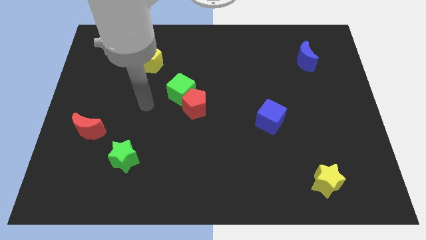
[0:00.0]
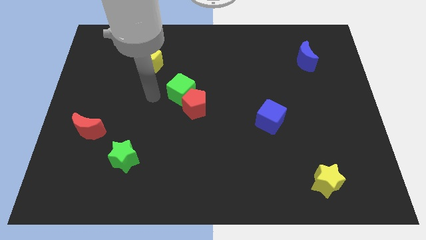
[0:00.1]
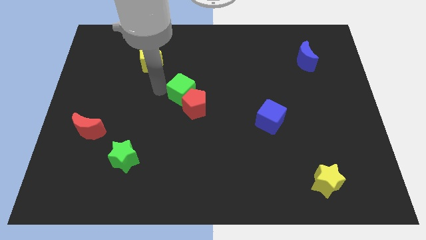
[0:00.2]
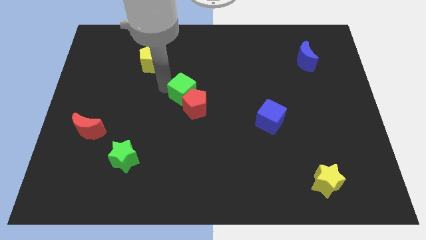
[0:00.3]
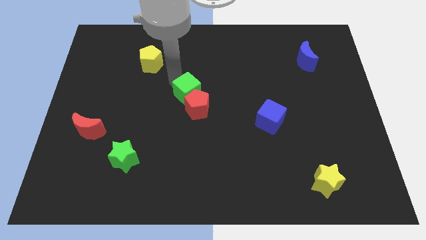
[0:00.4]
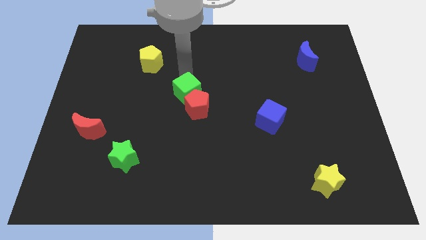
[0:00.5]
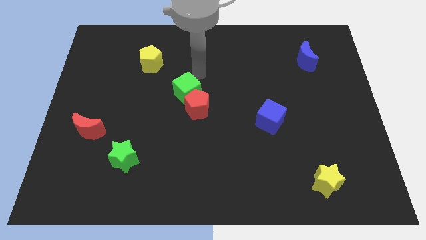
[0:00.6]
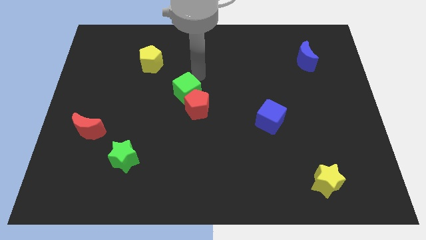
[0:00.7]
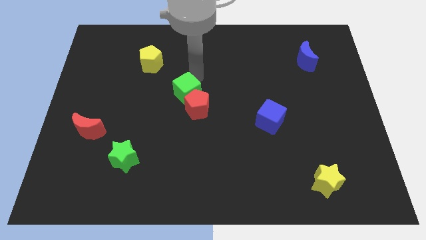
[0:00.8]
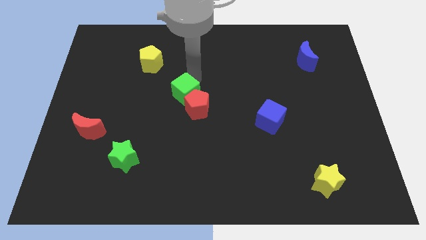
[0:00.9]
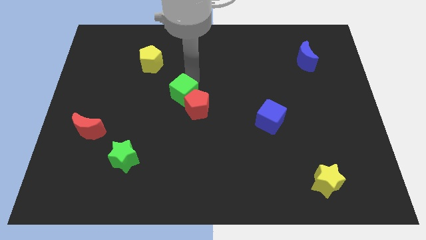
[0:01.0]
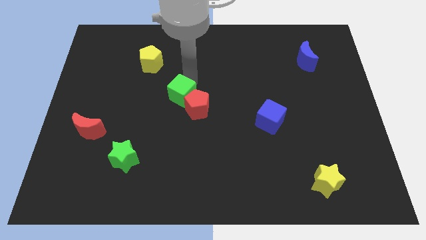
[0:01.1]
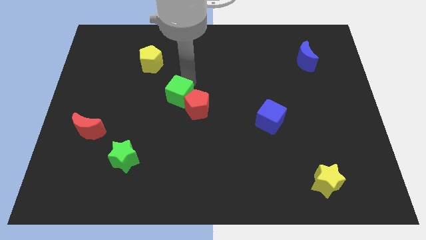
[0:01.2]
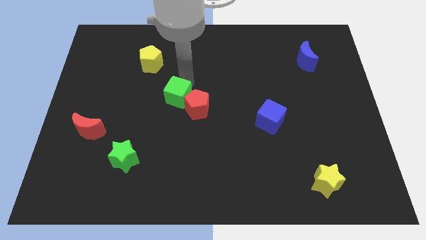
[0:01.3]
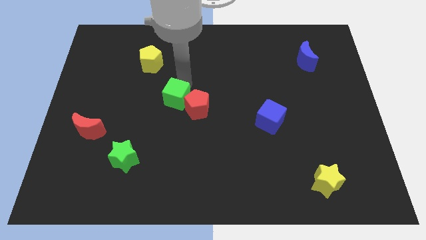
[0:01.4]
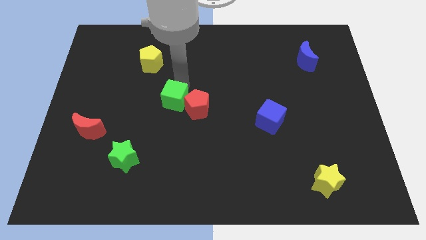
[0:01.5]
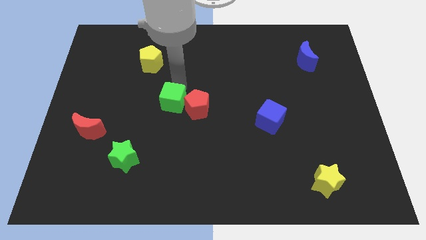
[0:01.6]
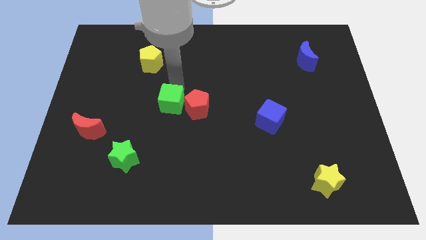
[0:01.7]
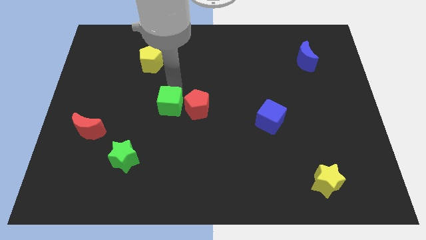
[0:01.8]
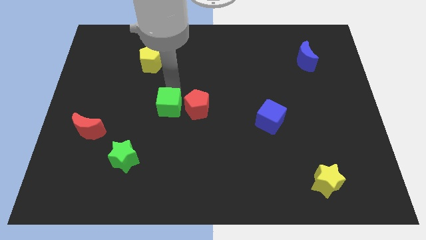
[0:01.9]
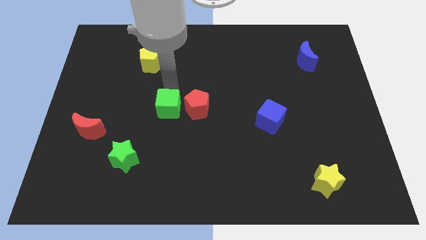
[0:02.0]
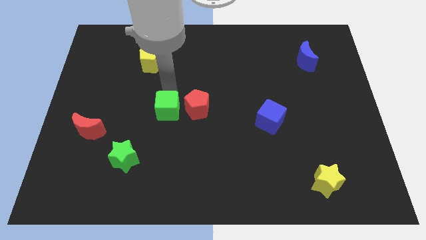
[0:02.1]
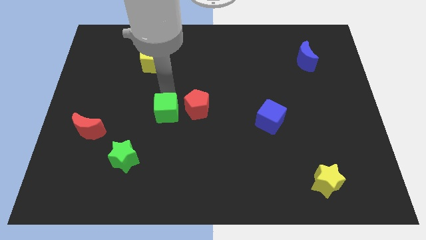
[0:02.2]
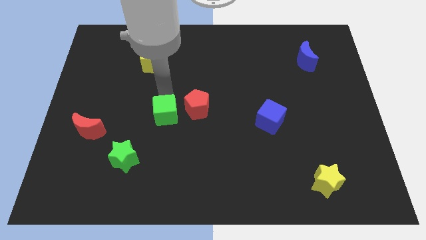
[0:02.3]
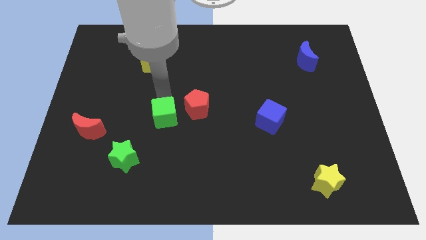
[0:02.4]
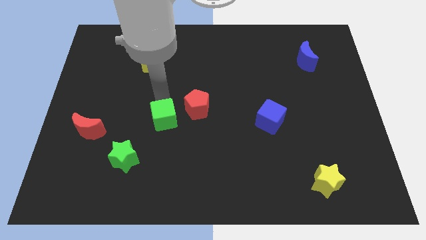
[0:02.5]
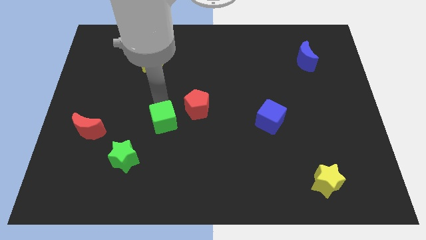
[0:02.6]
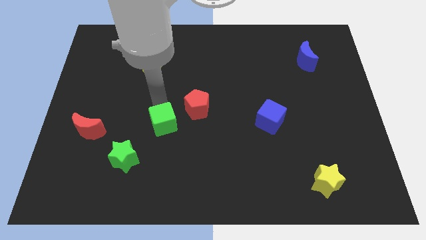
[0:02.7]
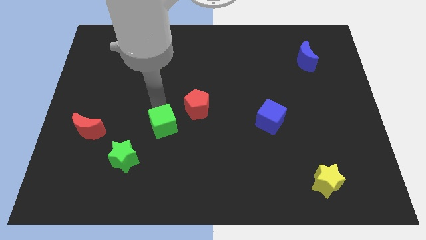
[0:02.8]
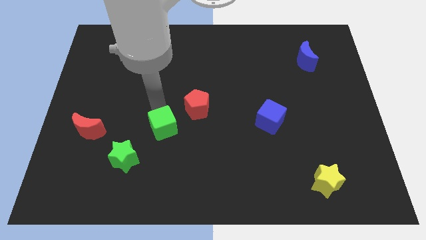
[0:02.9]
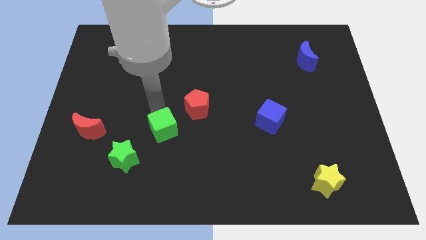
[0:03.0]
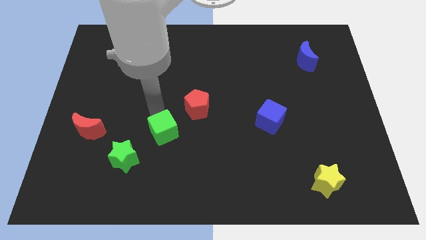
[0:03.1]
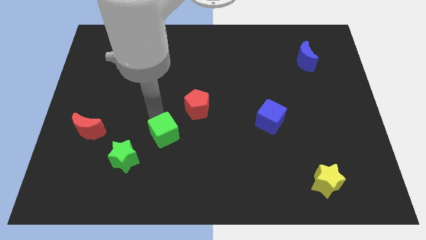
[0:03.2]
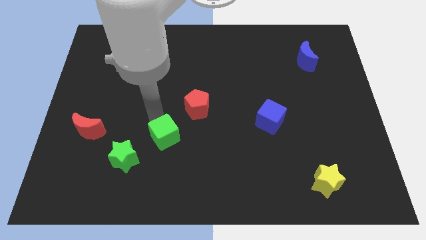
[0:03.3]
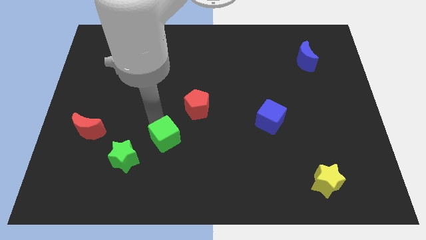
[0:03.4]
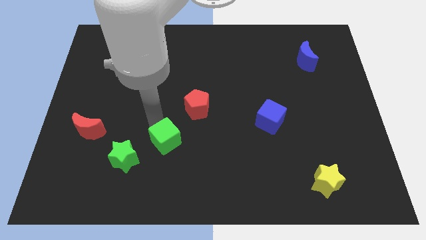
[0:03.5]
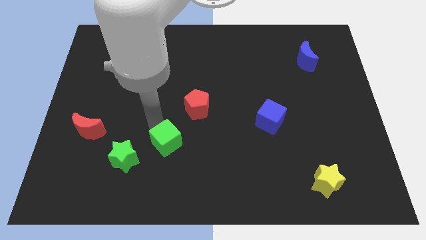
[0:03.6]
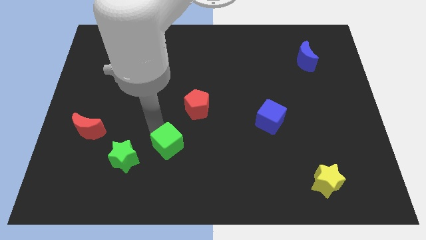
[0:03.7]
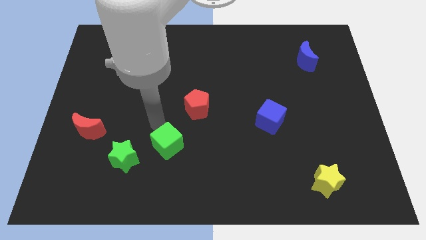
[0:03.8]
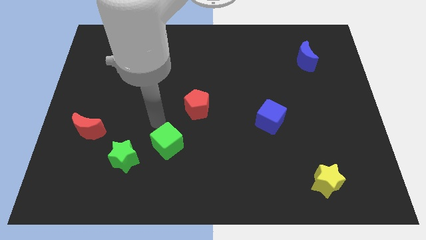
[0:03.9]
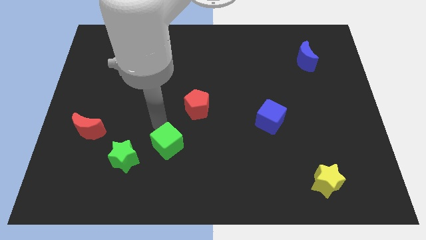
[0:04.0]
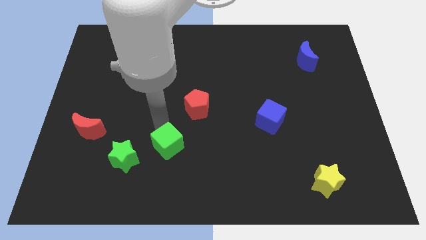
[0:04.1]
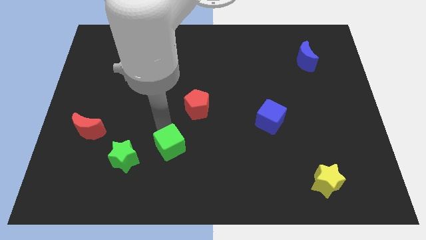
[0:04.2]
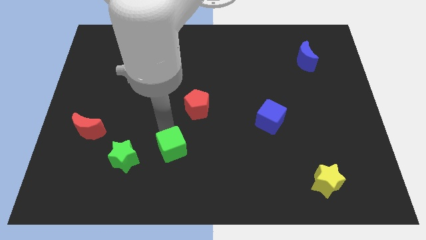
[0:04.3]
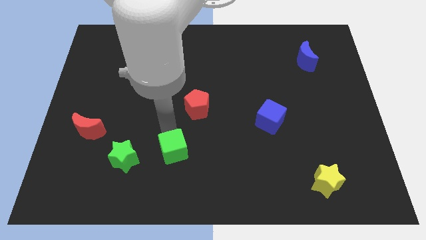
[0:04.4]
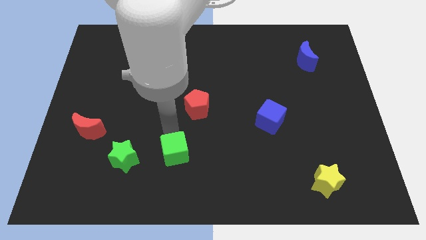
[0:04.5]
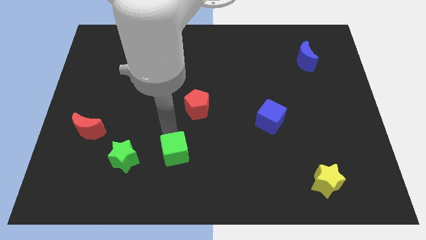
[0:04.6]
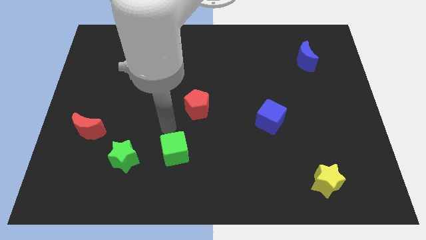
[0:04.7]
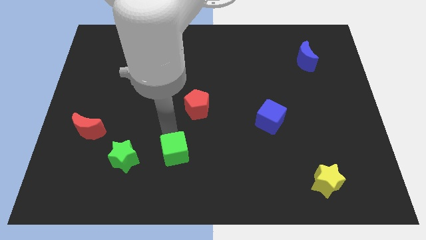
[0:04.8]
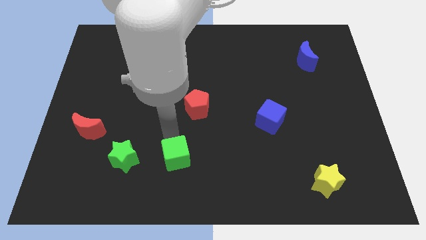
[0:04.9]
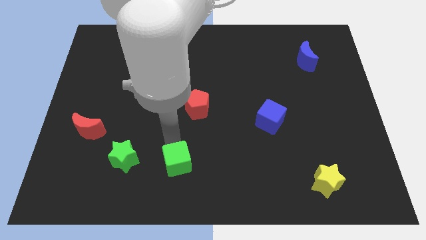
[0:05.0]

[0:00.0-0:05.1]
move the green cube to the bottom

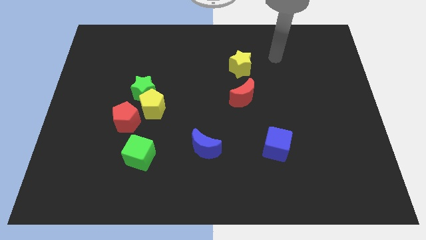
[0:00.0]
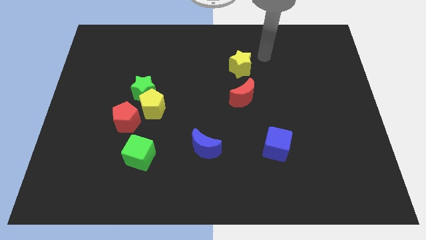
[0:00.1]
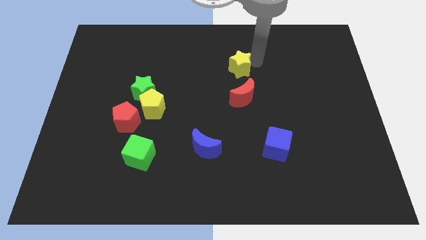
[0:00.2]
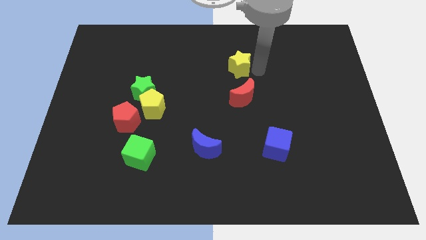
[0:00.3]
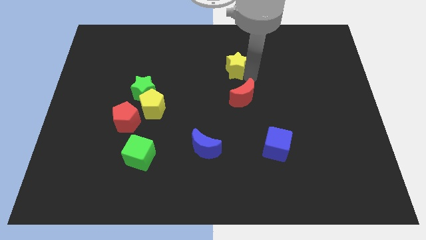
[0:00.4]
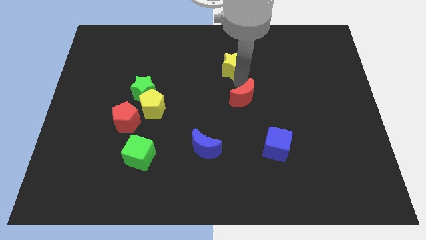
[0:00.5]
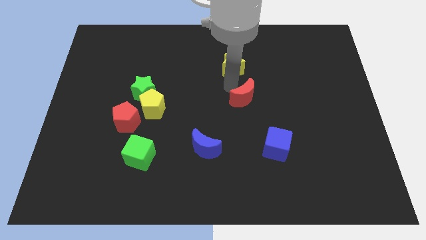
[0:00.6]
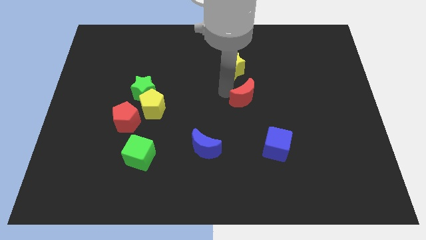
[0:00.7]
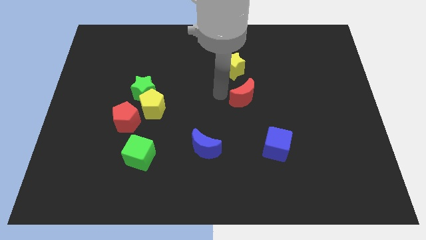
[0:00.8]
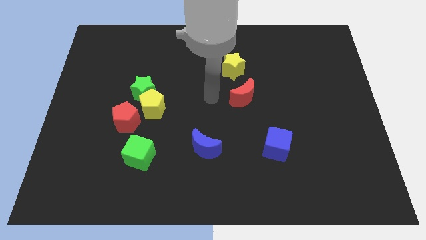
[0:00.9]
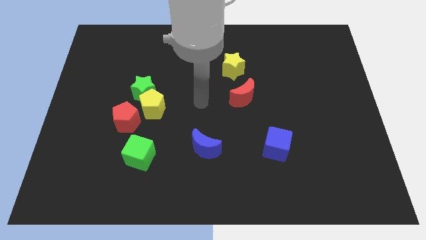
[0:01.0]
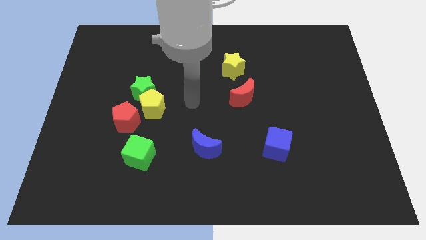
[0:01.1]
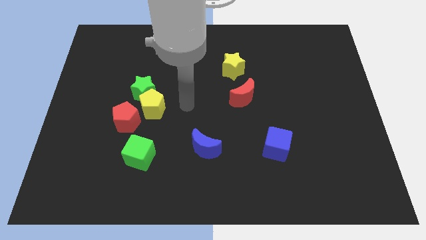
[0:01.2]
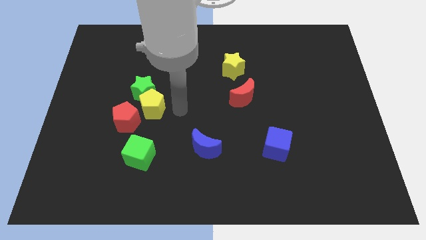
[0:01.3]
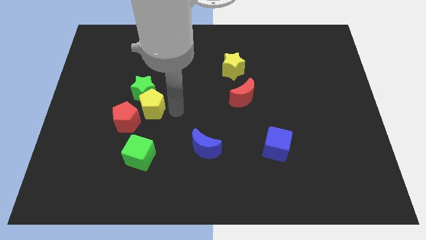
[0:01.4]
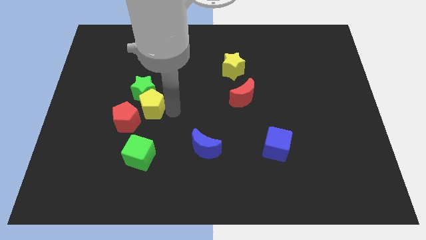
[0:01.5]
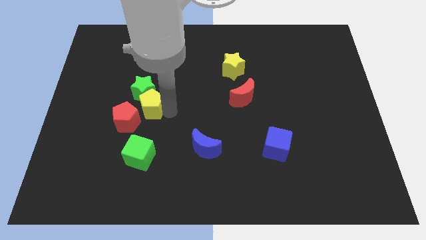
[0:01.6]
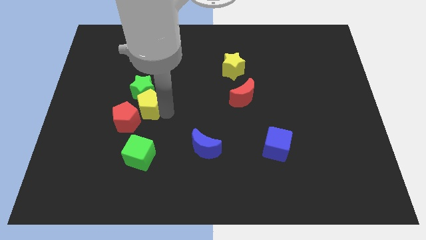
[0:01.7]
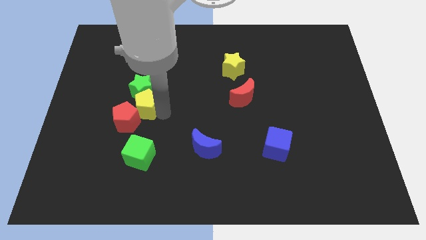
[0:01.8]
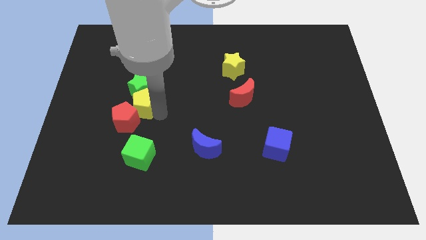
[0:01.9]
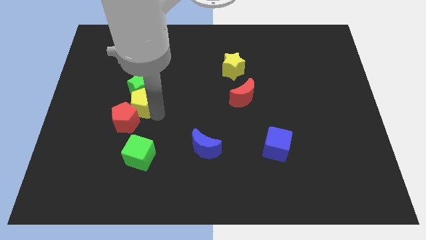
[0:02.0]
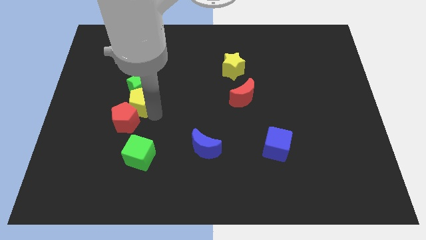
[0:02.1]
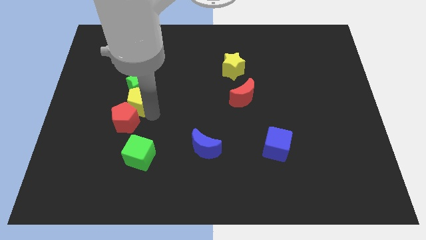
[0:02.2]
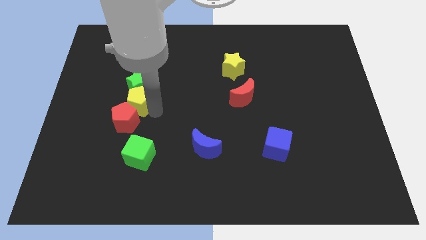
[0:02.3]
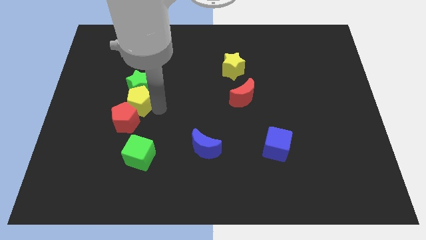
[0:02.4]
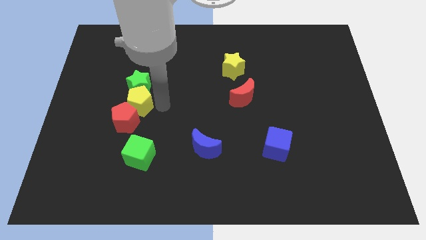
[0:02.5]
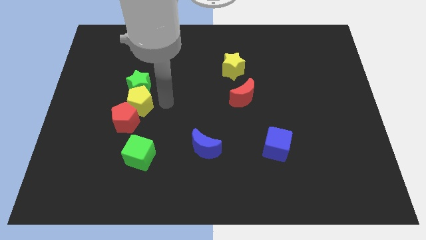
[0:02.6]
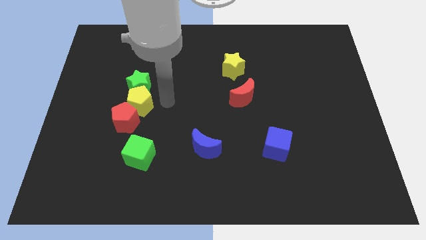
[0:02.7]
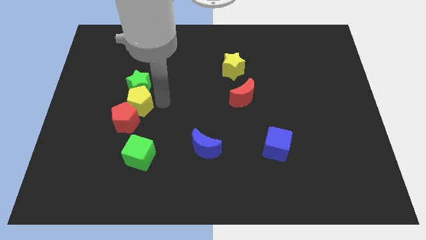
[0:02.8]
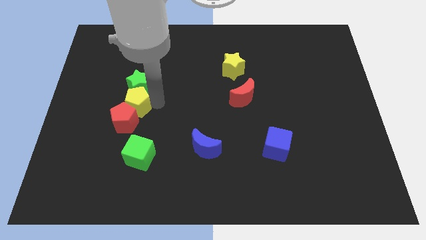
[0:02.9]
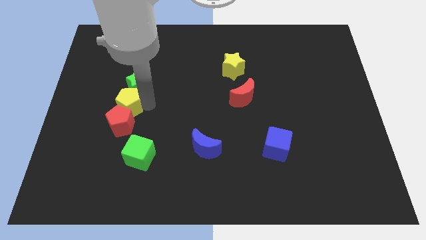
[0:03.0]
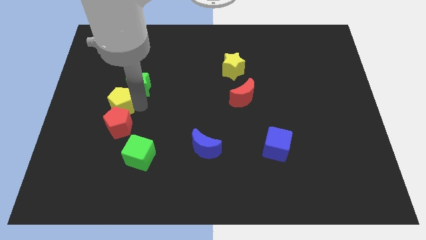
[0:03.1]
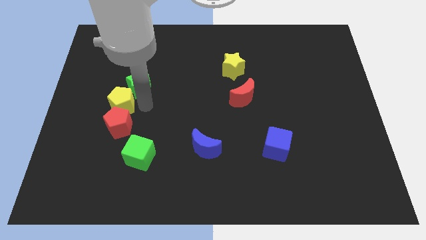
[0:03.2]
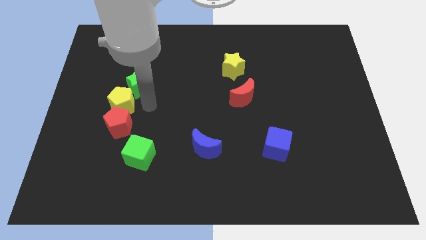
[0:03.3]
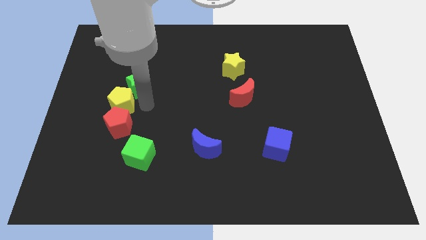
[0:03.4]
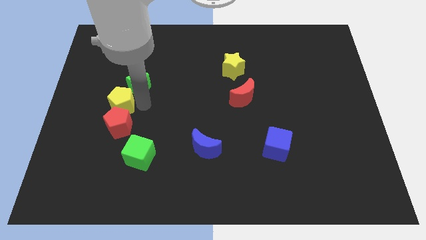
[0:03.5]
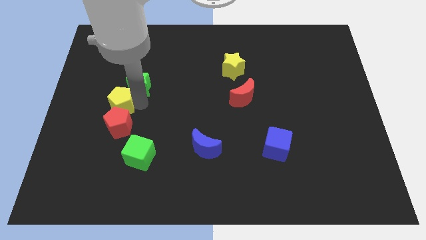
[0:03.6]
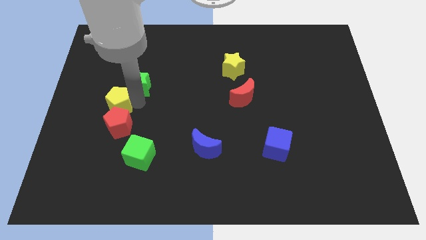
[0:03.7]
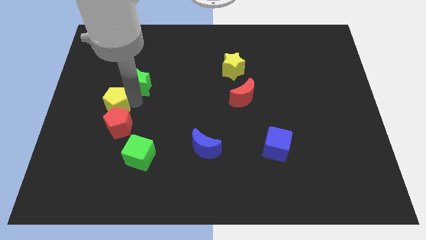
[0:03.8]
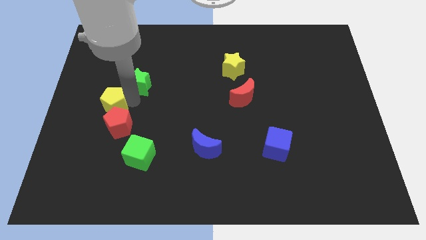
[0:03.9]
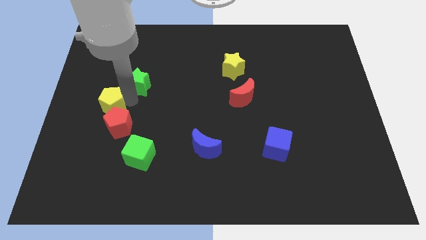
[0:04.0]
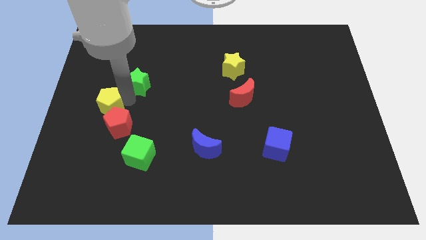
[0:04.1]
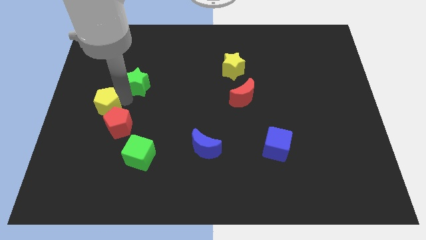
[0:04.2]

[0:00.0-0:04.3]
put the yellow pentagon to the center left
